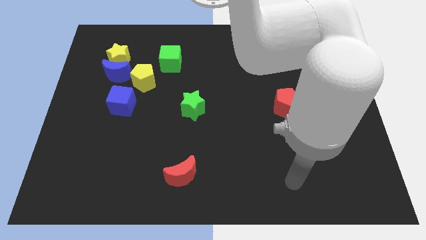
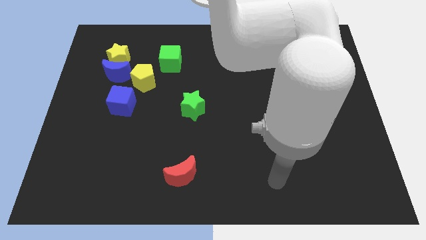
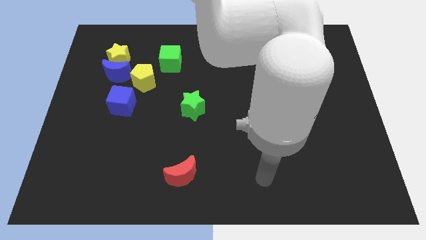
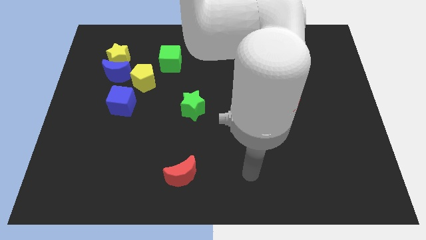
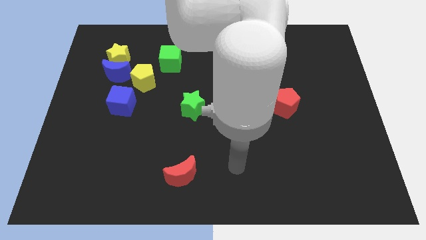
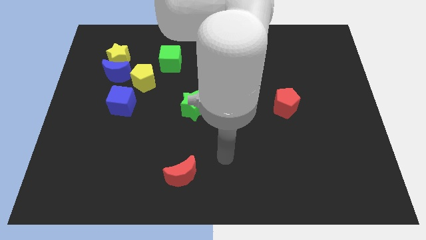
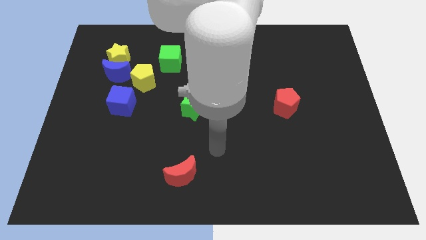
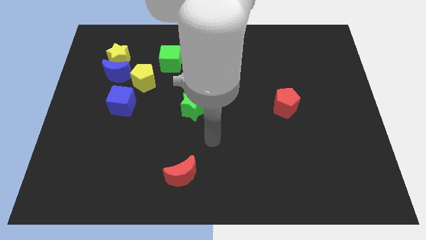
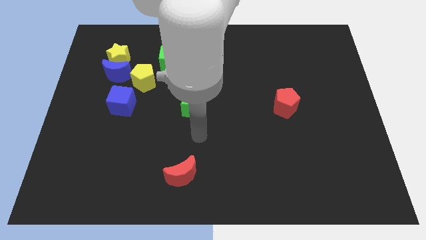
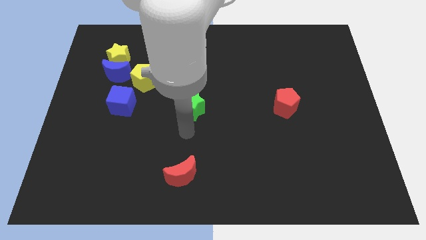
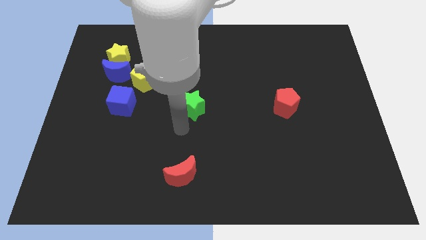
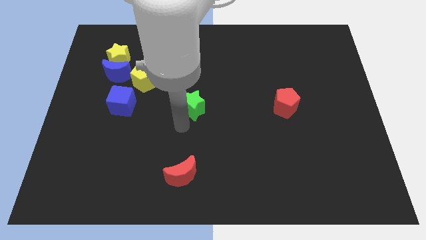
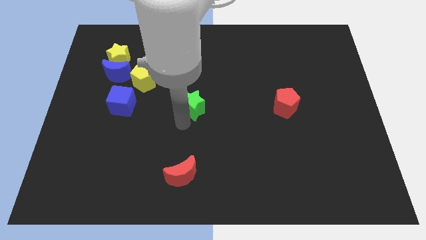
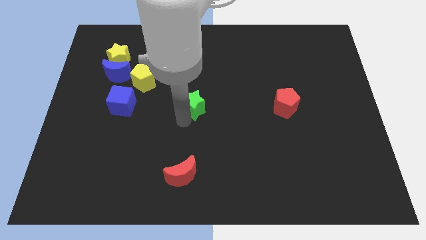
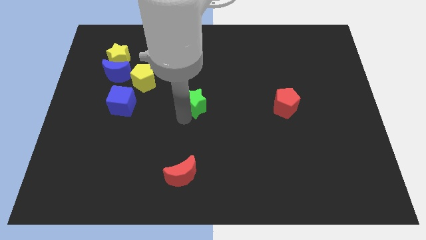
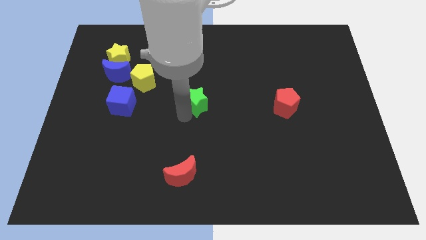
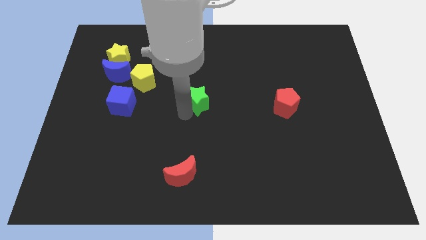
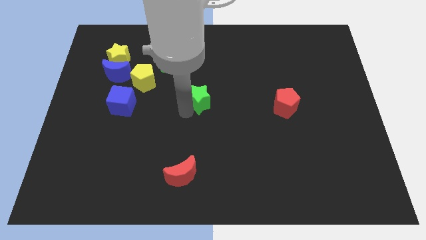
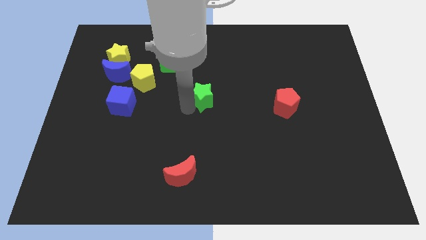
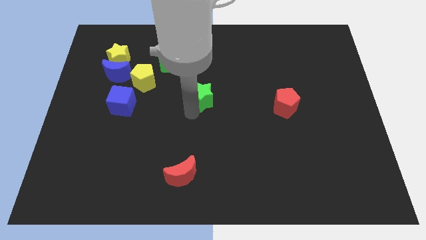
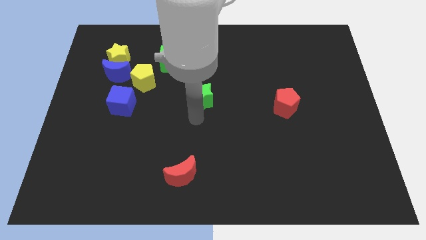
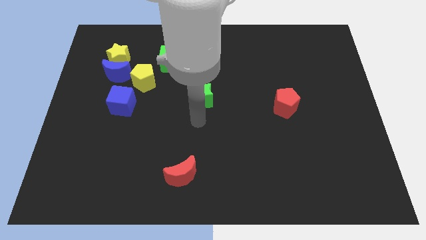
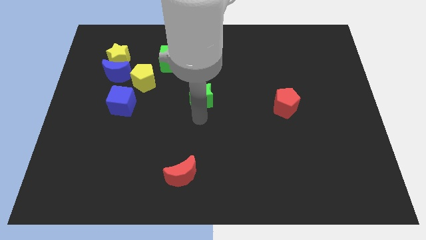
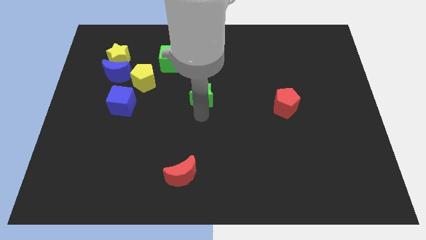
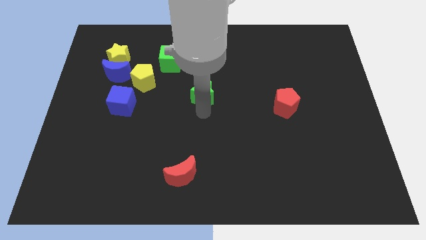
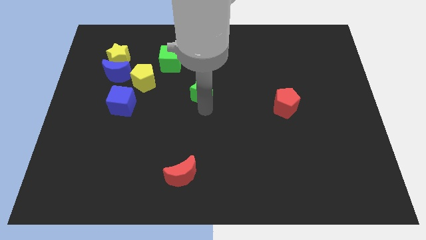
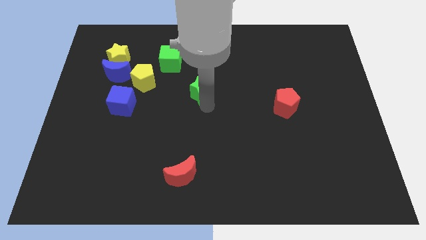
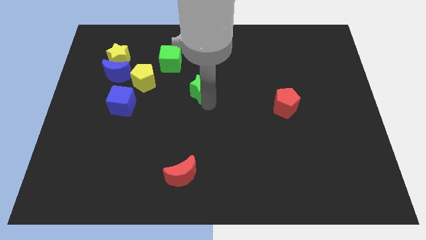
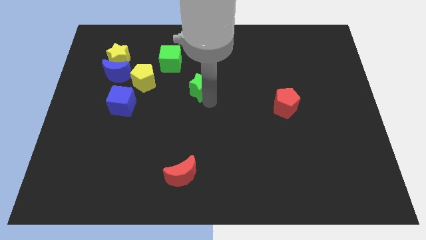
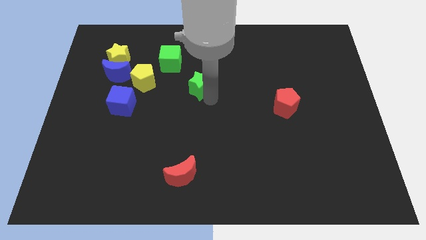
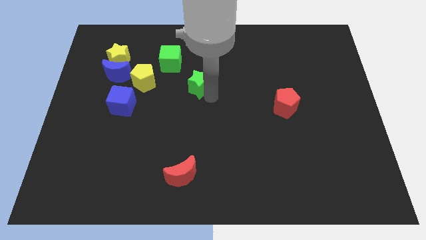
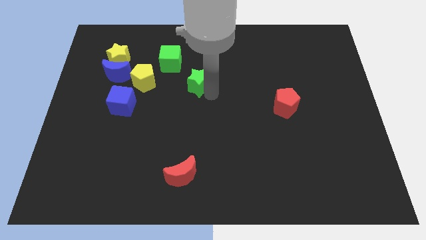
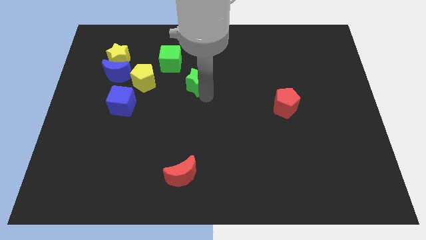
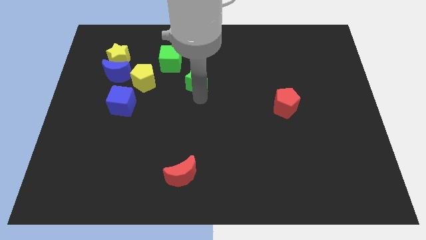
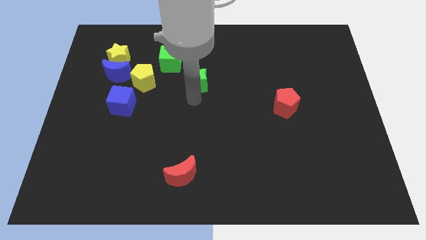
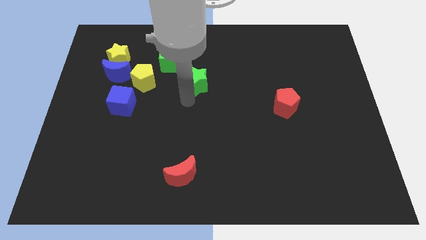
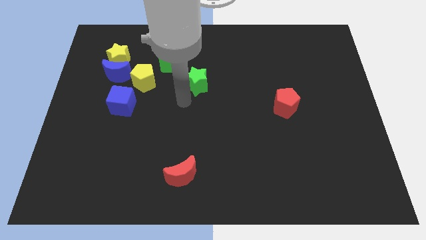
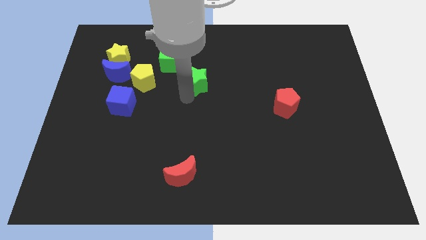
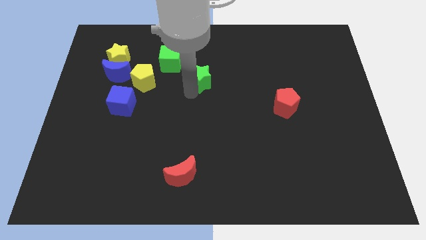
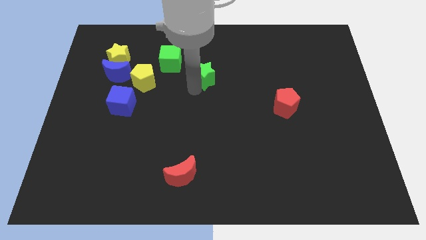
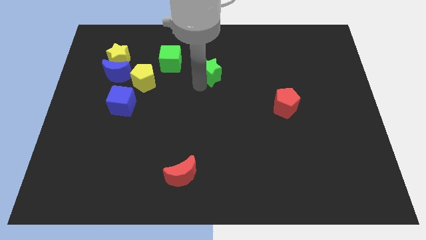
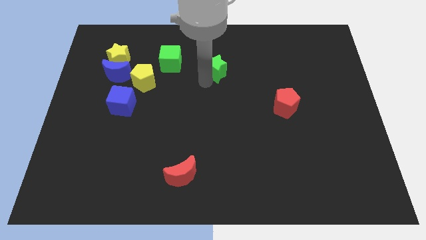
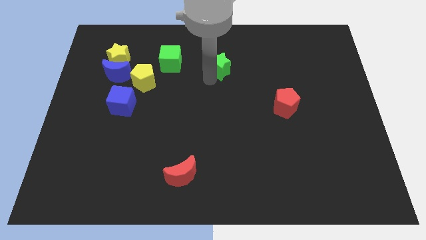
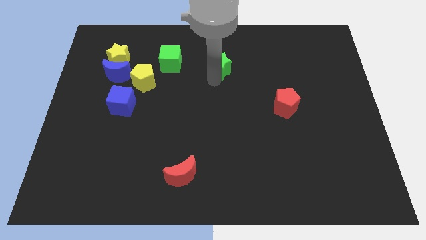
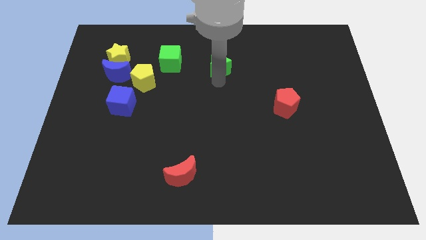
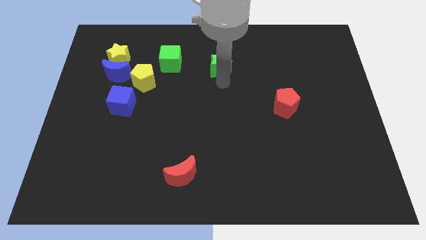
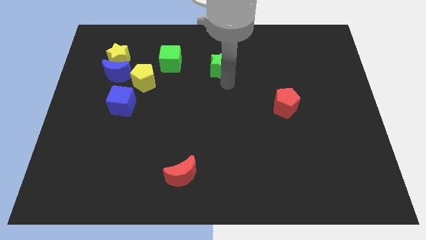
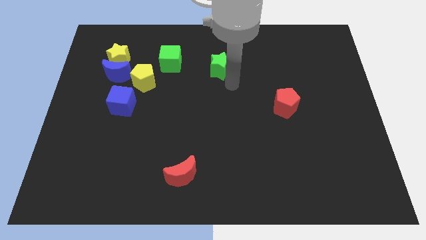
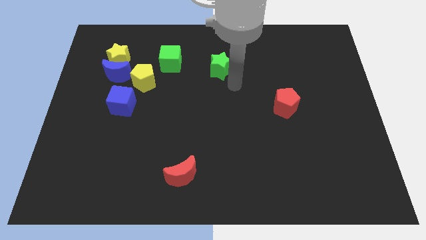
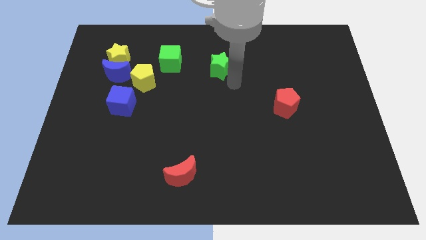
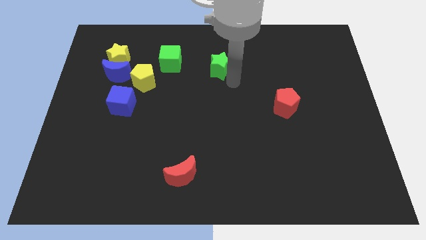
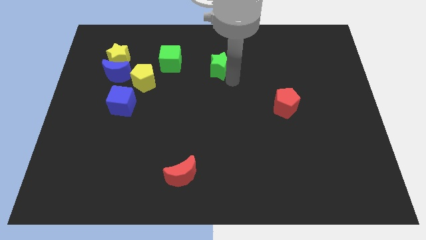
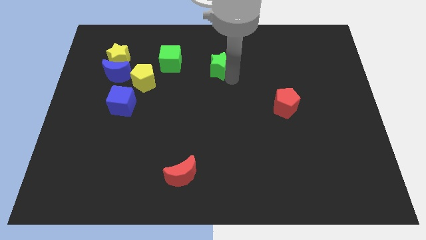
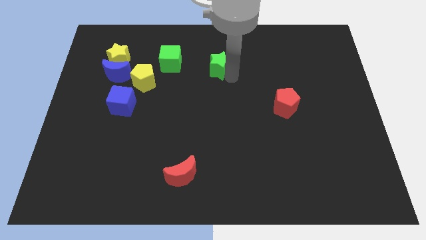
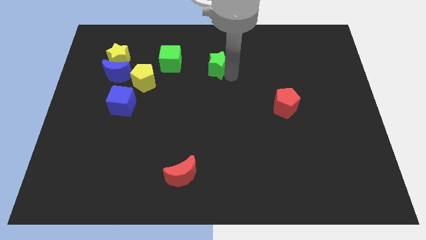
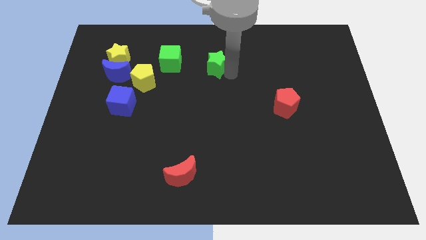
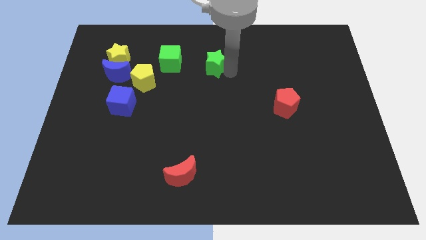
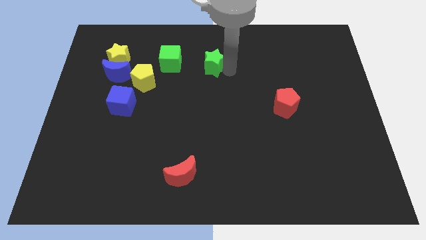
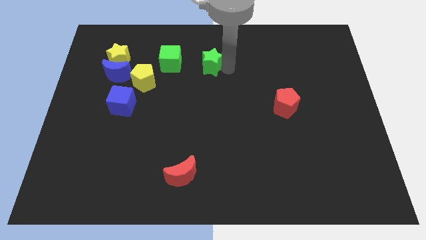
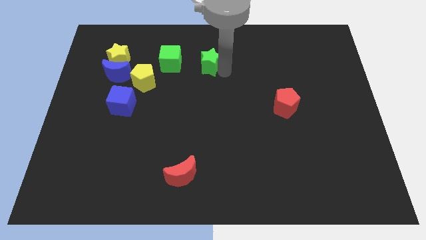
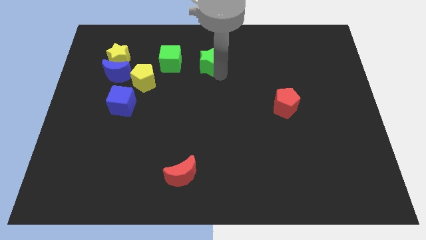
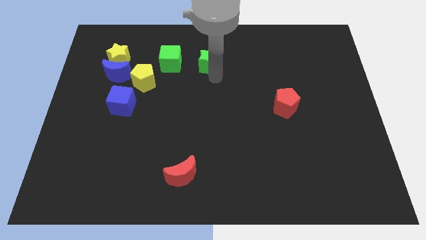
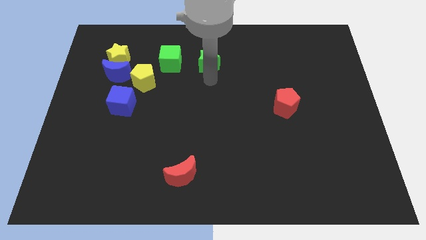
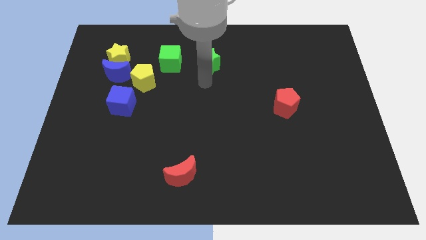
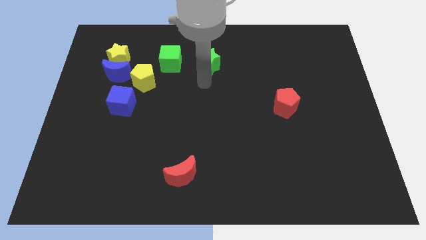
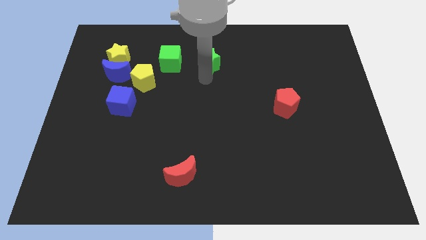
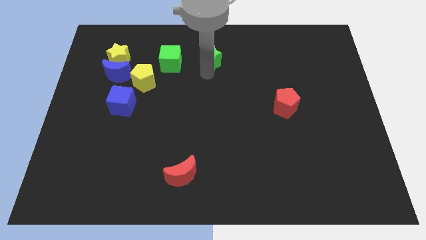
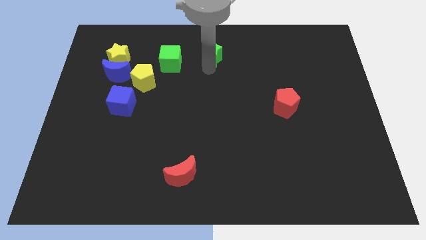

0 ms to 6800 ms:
push the green star to the top side
